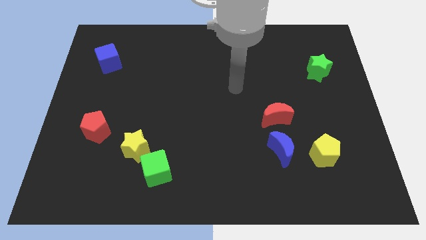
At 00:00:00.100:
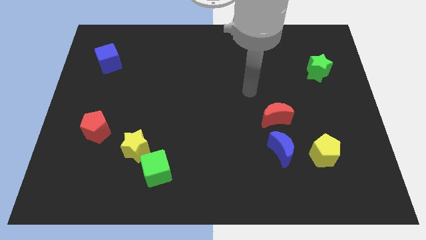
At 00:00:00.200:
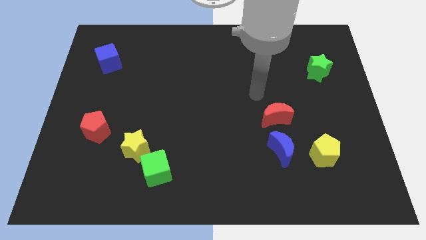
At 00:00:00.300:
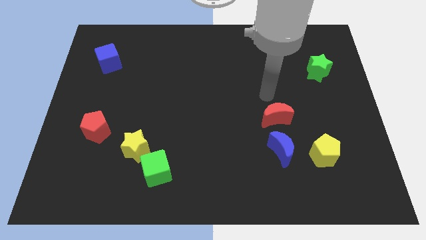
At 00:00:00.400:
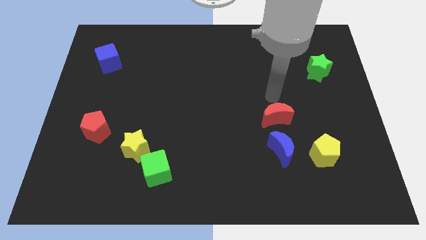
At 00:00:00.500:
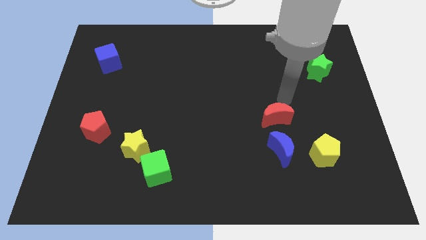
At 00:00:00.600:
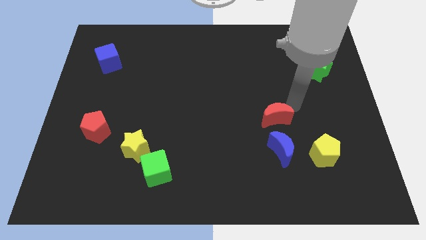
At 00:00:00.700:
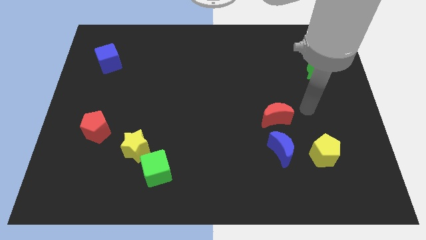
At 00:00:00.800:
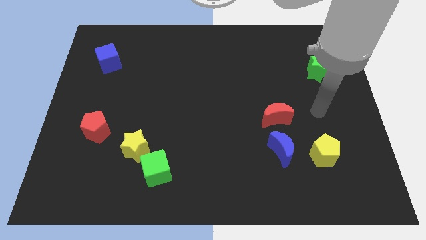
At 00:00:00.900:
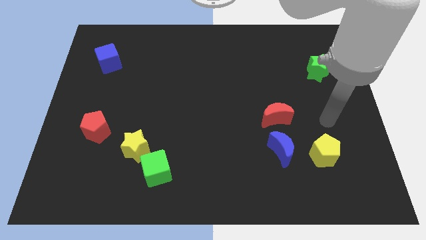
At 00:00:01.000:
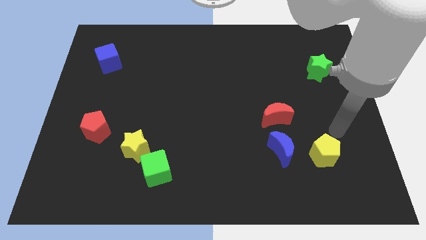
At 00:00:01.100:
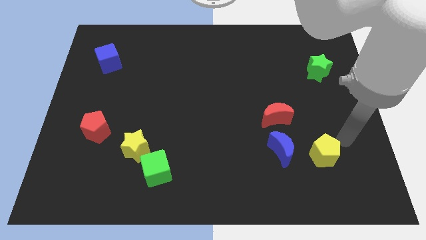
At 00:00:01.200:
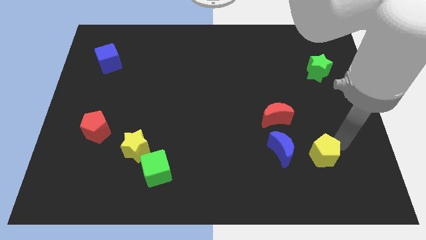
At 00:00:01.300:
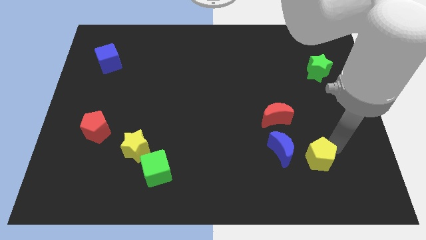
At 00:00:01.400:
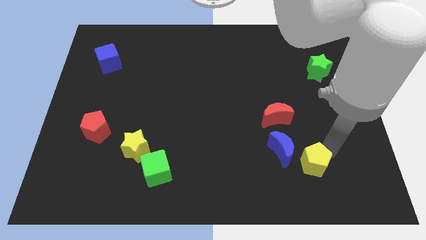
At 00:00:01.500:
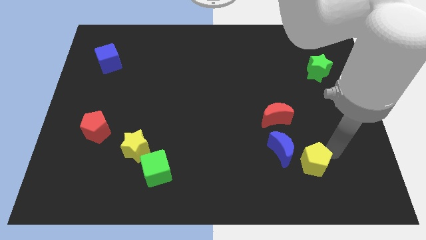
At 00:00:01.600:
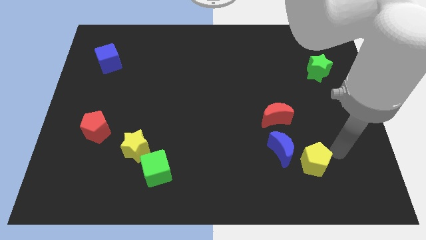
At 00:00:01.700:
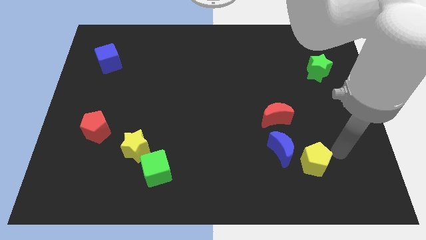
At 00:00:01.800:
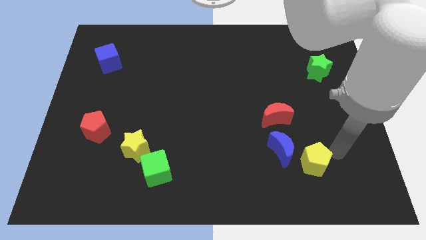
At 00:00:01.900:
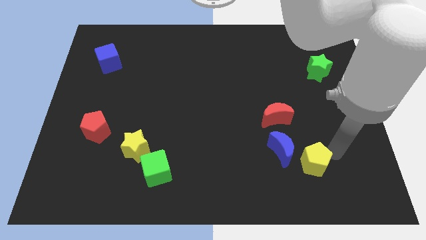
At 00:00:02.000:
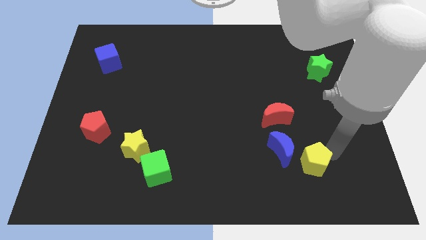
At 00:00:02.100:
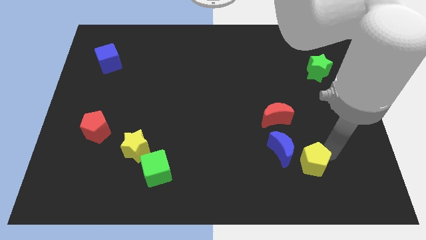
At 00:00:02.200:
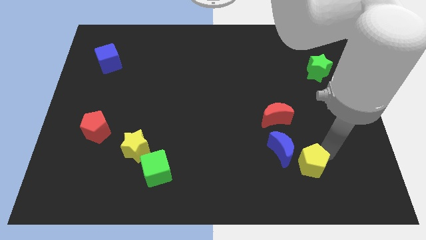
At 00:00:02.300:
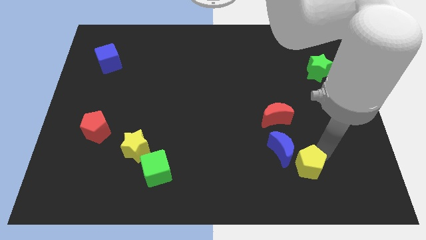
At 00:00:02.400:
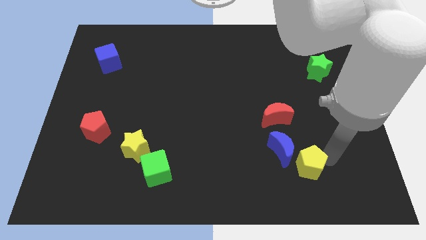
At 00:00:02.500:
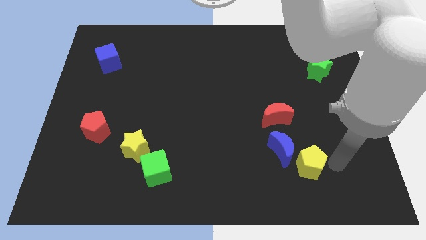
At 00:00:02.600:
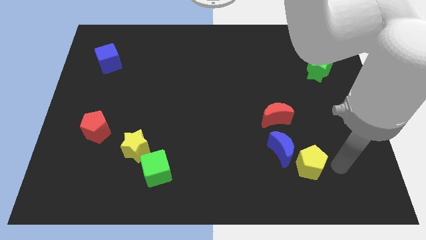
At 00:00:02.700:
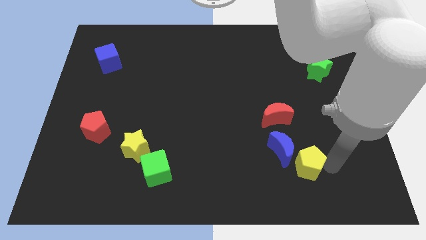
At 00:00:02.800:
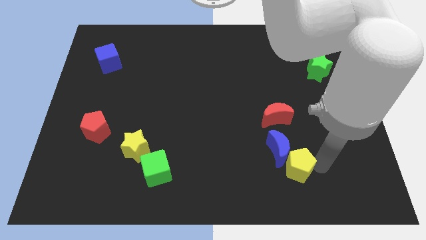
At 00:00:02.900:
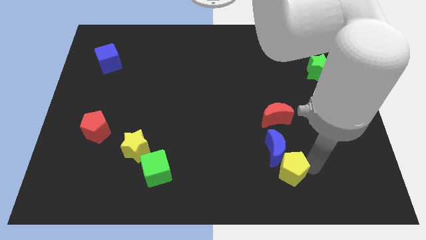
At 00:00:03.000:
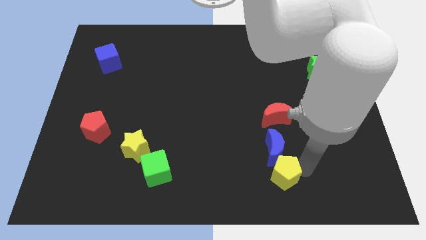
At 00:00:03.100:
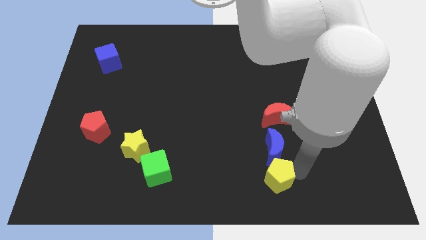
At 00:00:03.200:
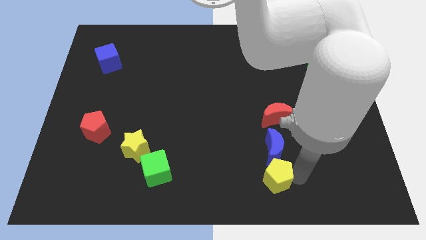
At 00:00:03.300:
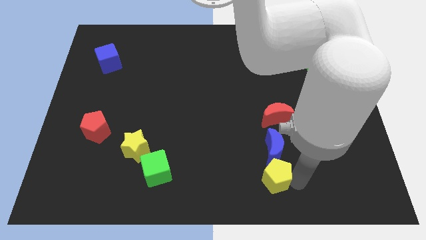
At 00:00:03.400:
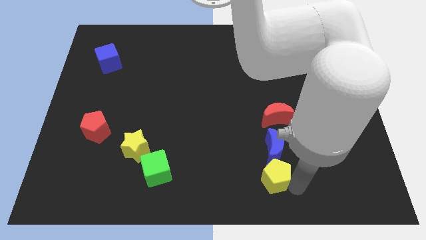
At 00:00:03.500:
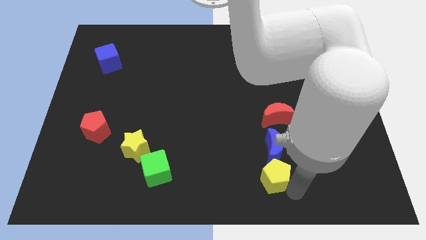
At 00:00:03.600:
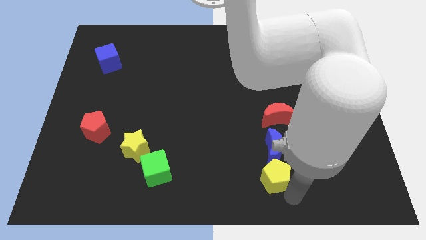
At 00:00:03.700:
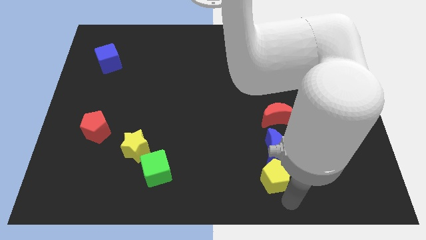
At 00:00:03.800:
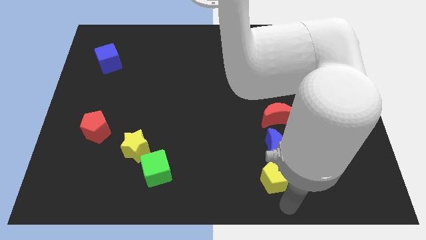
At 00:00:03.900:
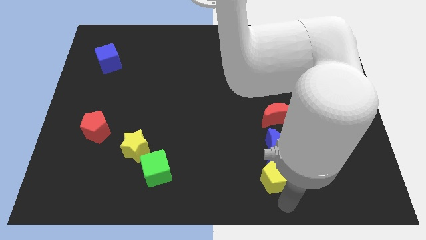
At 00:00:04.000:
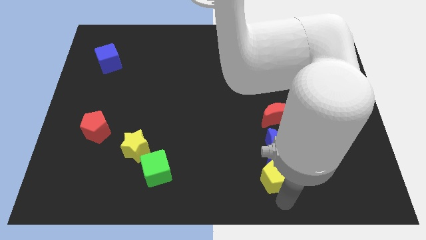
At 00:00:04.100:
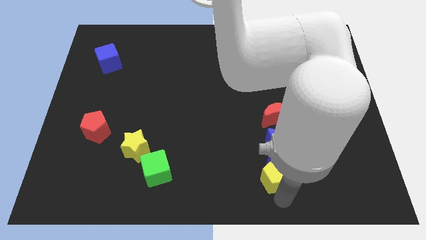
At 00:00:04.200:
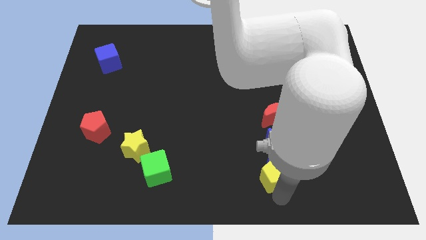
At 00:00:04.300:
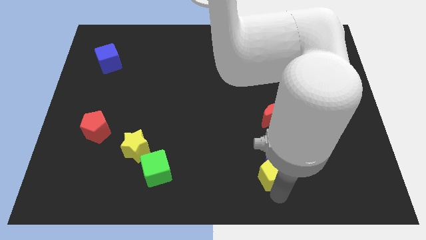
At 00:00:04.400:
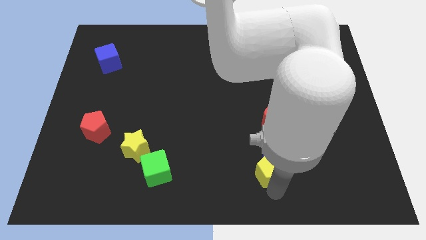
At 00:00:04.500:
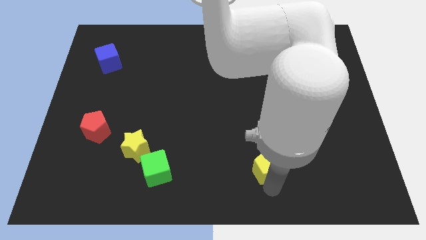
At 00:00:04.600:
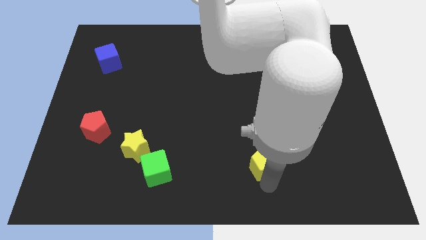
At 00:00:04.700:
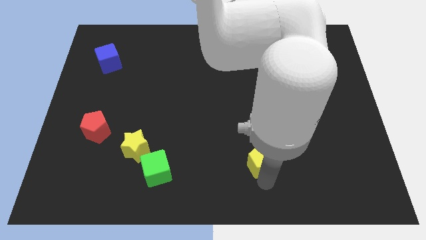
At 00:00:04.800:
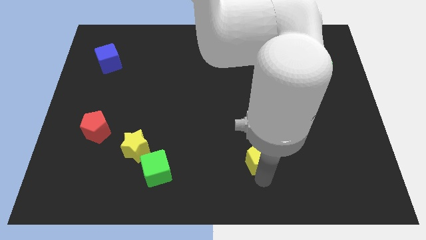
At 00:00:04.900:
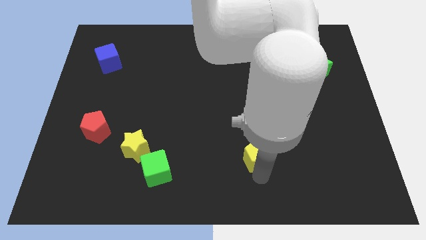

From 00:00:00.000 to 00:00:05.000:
put the yellow pentagon diagonally down and to the left of the red moon

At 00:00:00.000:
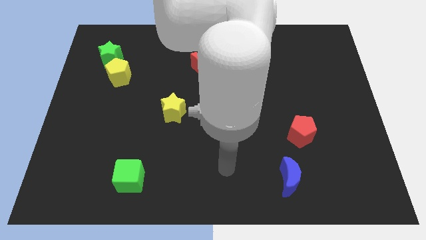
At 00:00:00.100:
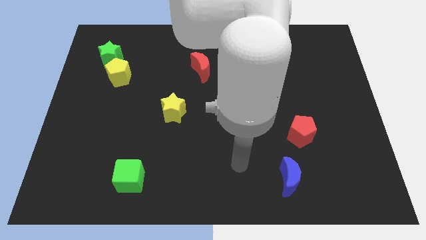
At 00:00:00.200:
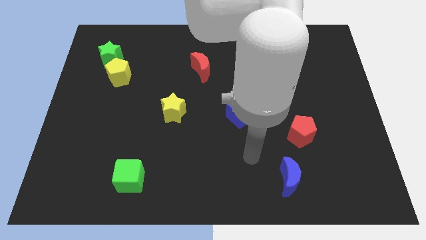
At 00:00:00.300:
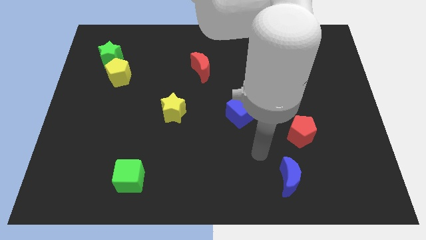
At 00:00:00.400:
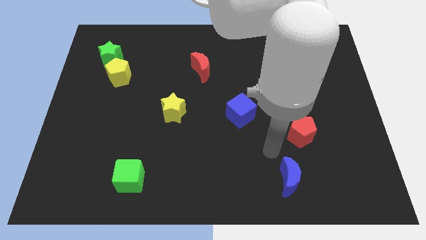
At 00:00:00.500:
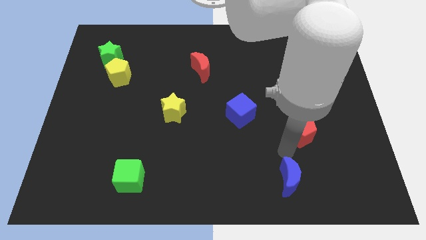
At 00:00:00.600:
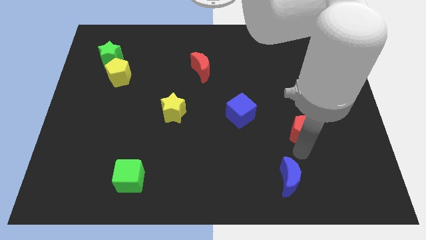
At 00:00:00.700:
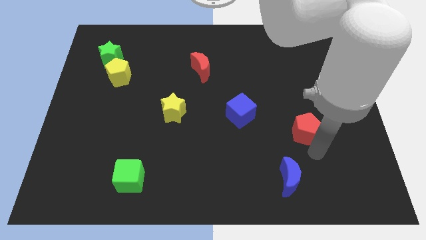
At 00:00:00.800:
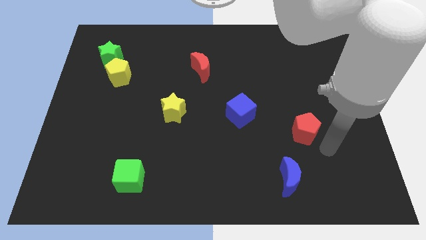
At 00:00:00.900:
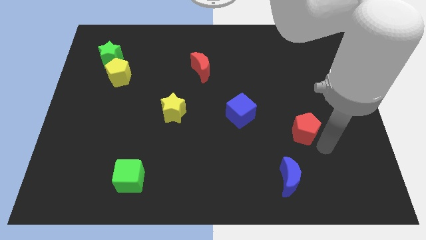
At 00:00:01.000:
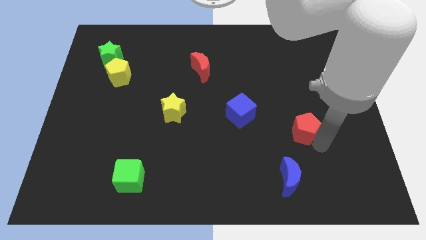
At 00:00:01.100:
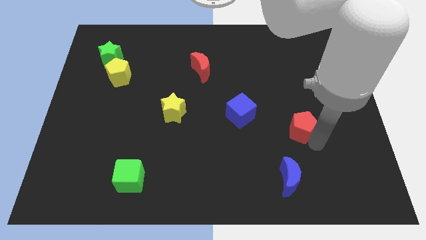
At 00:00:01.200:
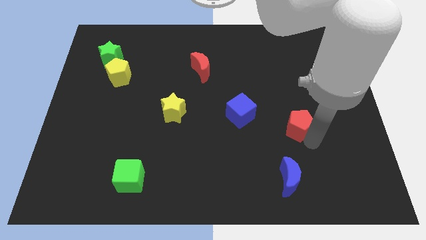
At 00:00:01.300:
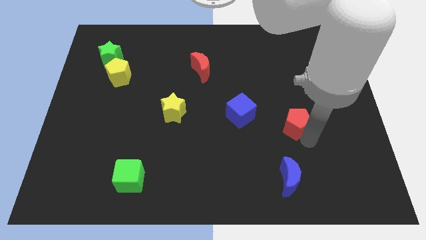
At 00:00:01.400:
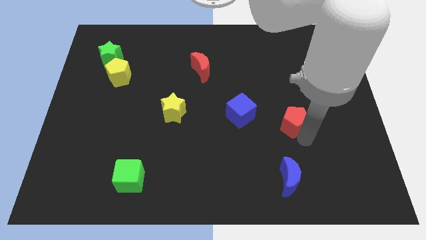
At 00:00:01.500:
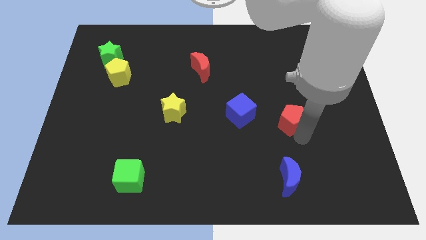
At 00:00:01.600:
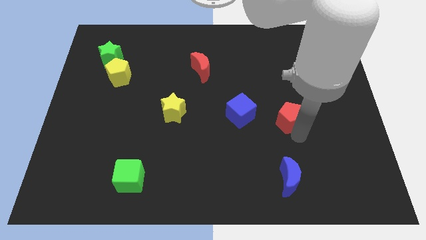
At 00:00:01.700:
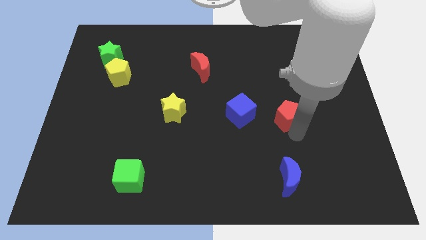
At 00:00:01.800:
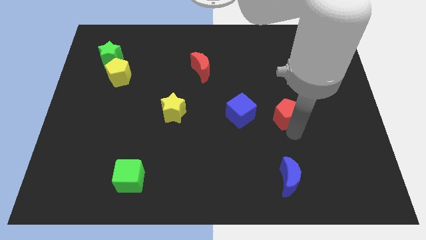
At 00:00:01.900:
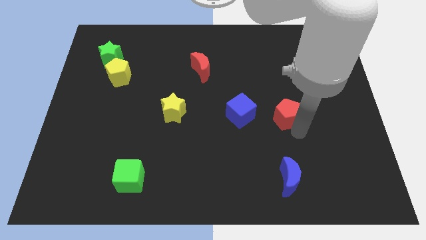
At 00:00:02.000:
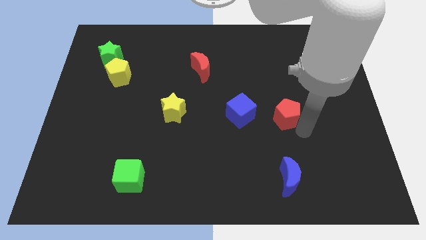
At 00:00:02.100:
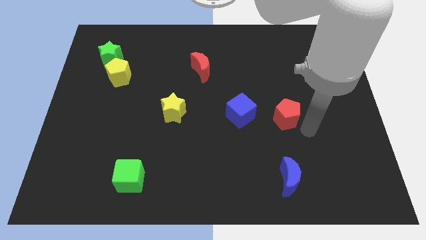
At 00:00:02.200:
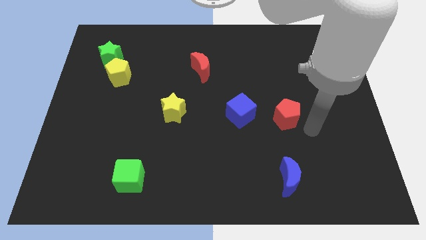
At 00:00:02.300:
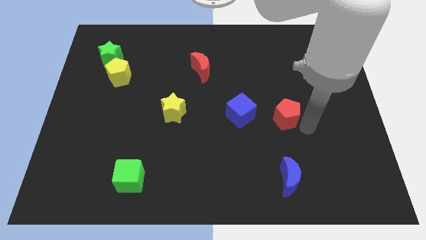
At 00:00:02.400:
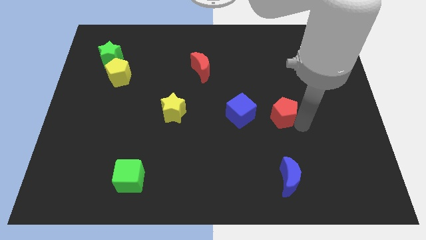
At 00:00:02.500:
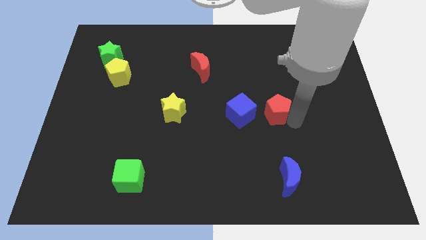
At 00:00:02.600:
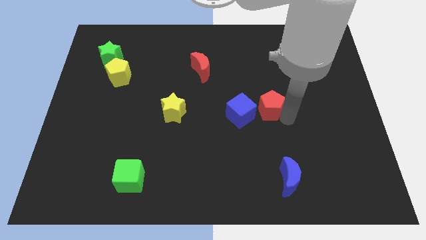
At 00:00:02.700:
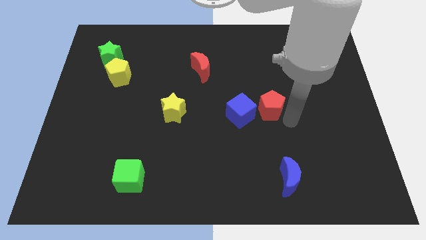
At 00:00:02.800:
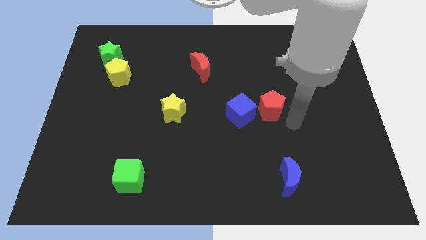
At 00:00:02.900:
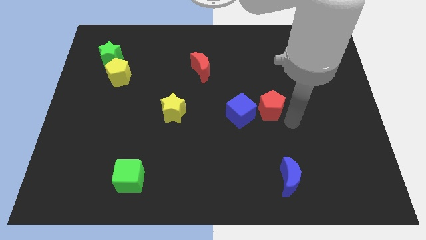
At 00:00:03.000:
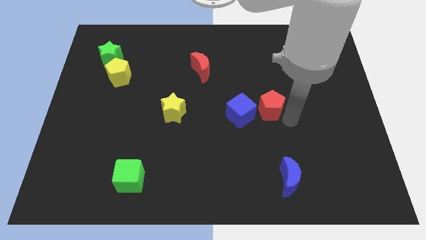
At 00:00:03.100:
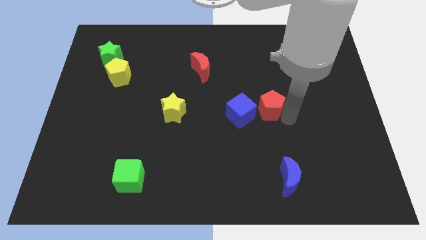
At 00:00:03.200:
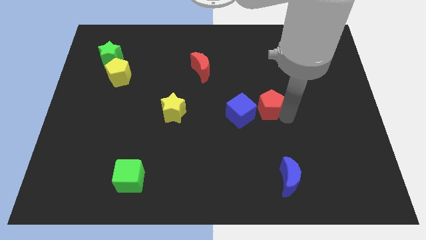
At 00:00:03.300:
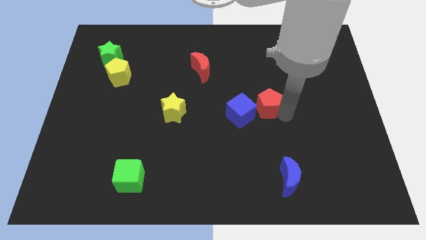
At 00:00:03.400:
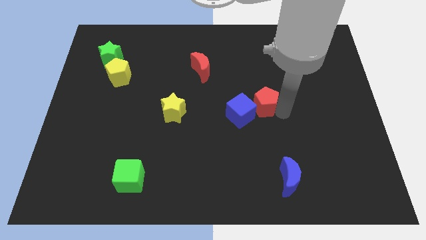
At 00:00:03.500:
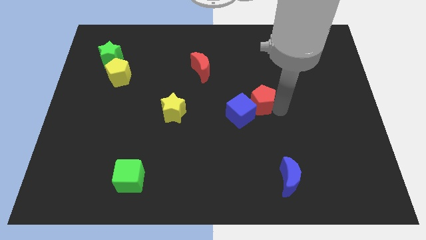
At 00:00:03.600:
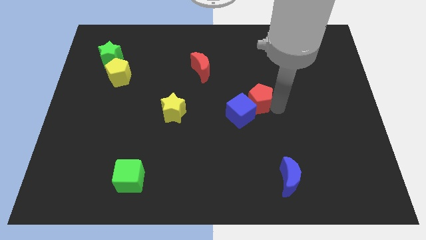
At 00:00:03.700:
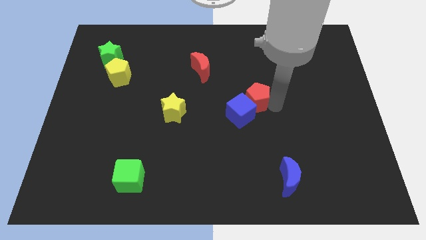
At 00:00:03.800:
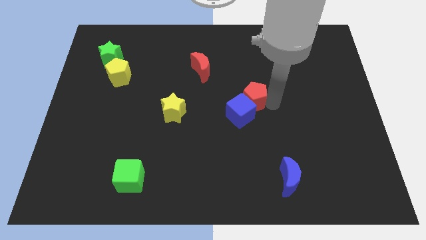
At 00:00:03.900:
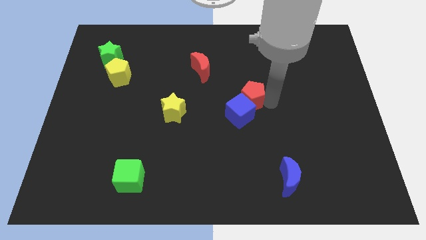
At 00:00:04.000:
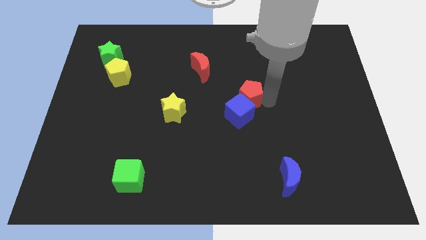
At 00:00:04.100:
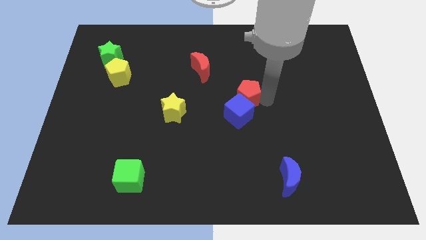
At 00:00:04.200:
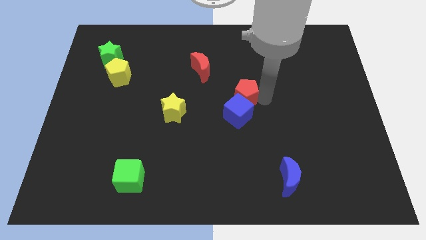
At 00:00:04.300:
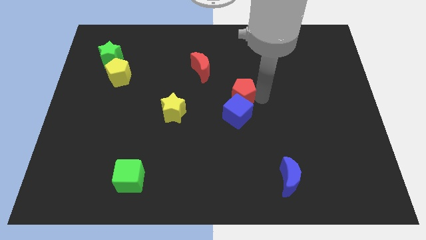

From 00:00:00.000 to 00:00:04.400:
move the red pentagon diagonally up and to the left of the blue cube
